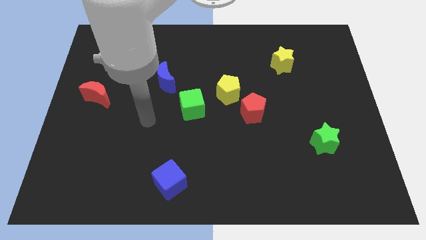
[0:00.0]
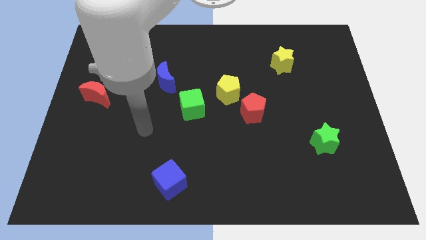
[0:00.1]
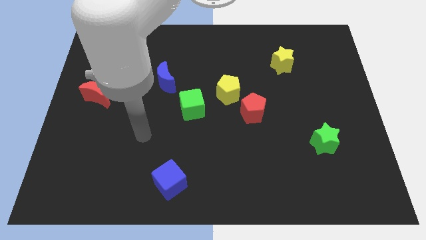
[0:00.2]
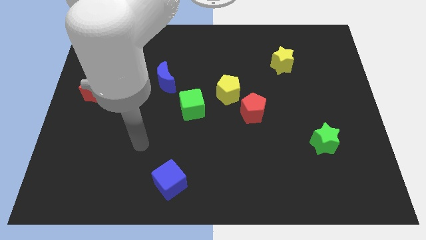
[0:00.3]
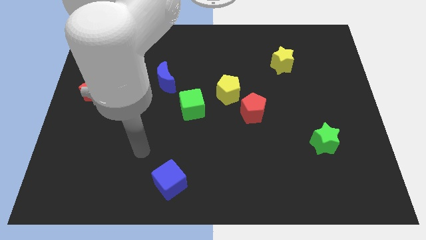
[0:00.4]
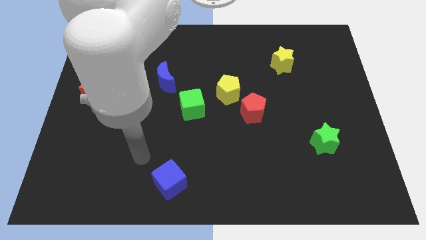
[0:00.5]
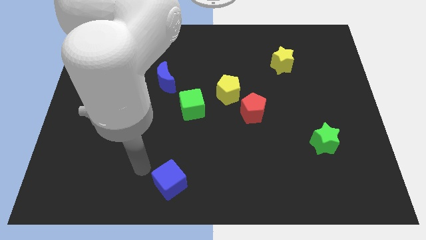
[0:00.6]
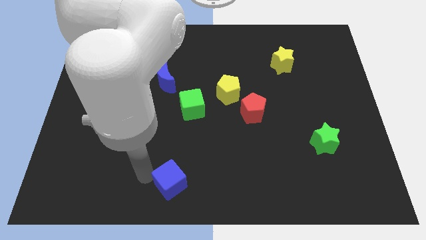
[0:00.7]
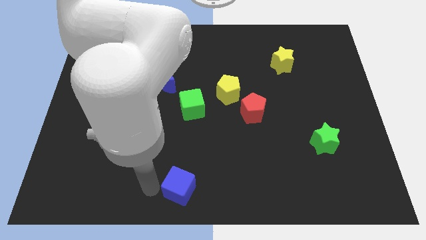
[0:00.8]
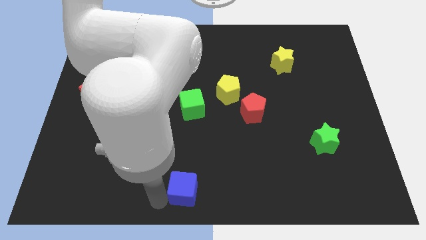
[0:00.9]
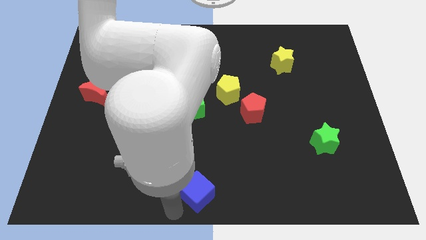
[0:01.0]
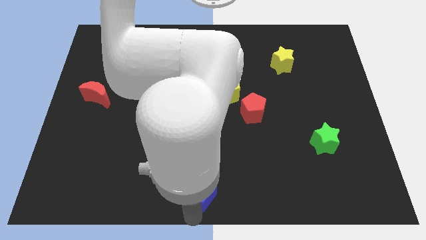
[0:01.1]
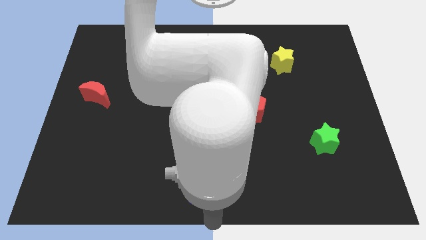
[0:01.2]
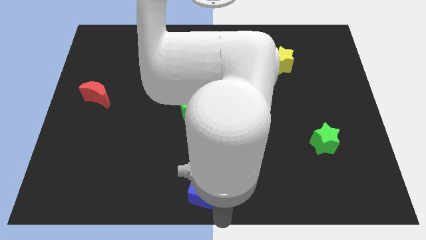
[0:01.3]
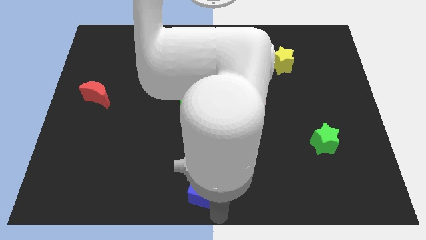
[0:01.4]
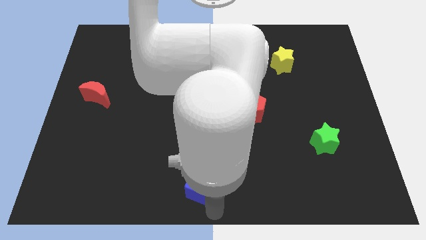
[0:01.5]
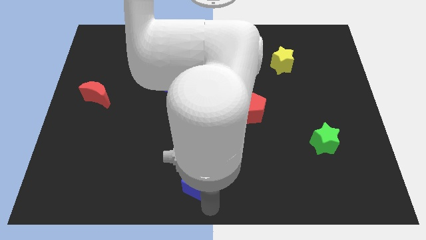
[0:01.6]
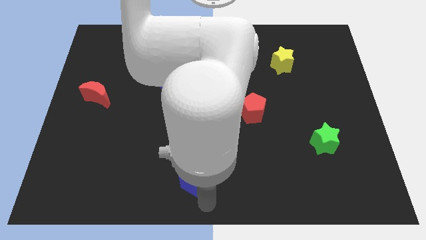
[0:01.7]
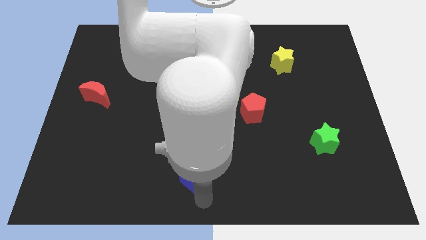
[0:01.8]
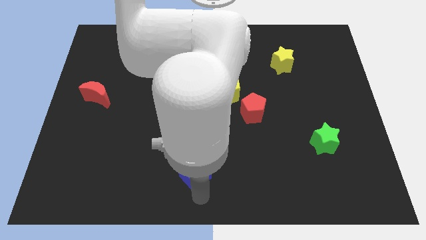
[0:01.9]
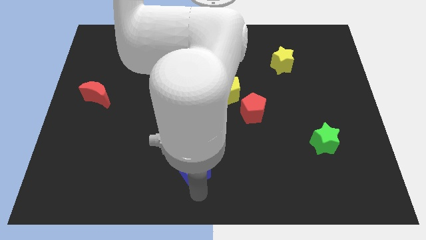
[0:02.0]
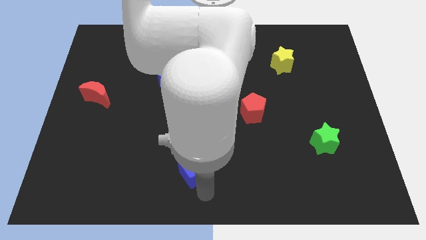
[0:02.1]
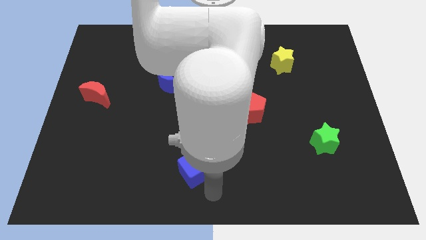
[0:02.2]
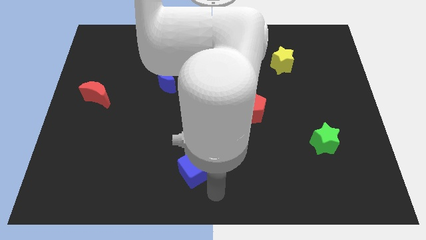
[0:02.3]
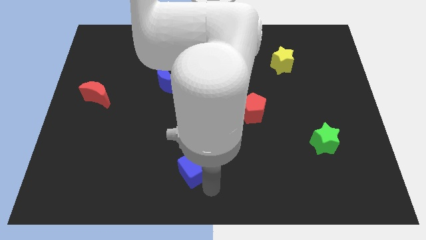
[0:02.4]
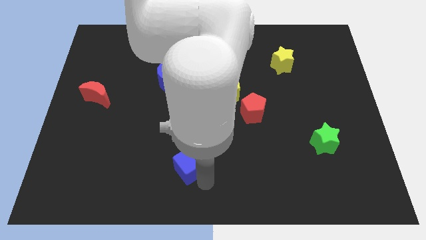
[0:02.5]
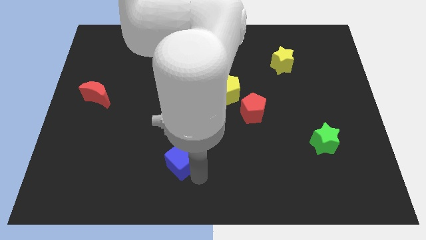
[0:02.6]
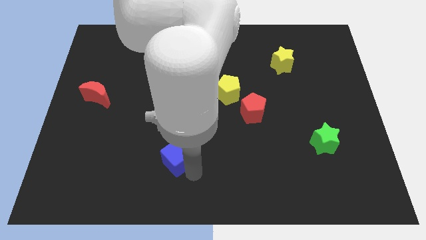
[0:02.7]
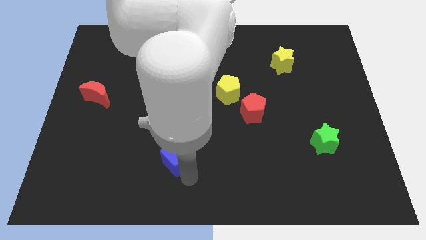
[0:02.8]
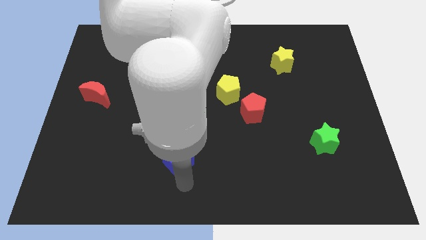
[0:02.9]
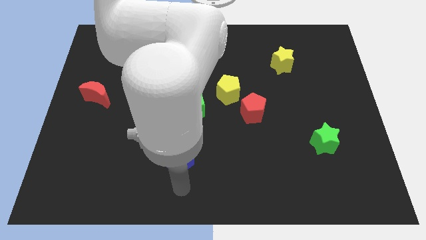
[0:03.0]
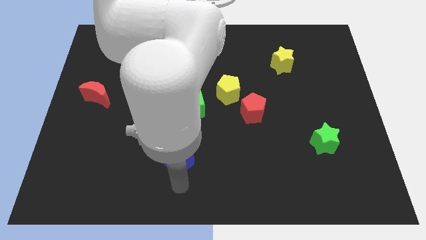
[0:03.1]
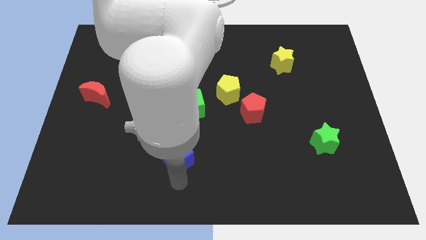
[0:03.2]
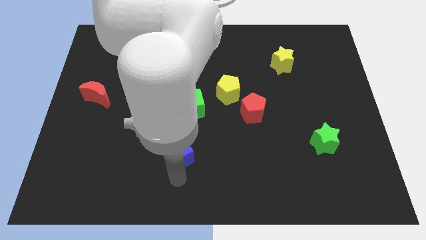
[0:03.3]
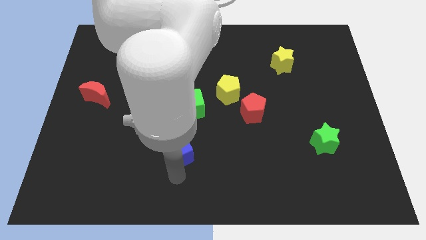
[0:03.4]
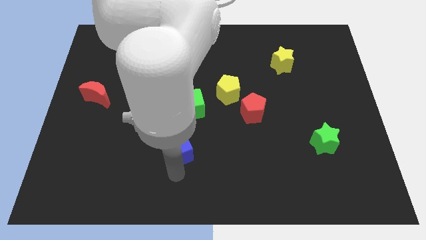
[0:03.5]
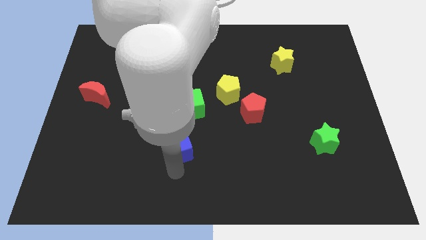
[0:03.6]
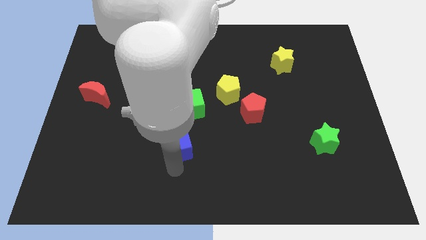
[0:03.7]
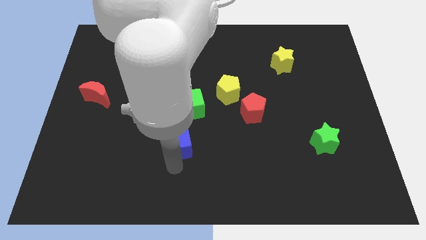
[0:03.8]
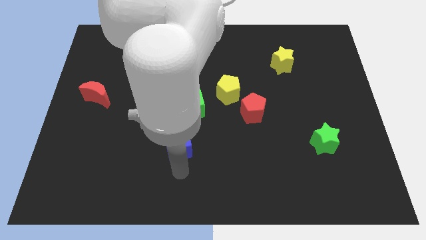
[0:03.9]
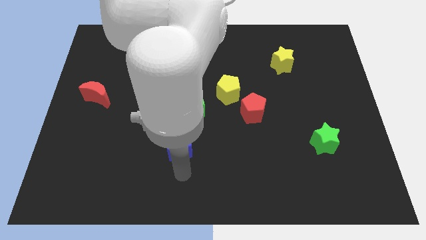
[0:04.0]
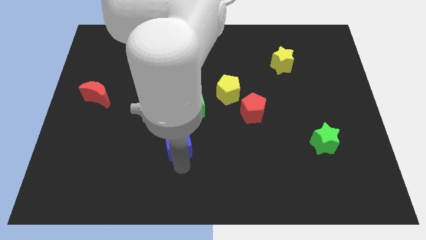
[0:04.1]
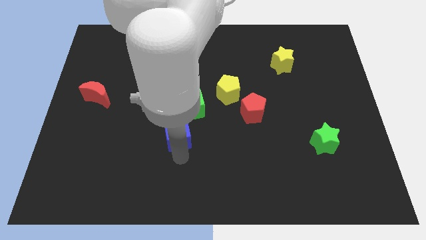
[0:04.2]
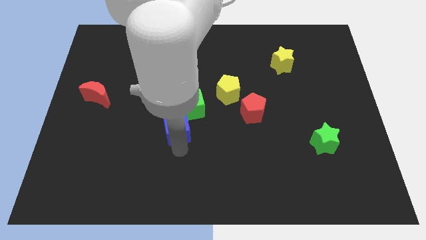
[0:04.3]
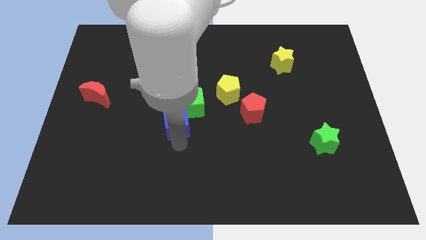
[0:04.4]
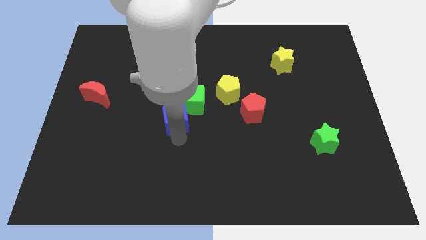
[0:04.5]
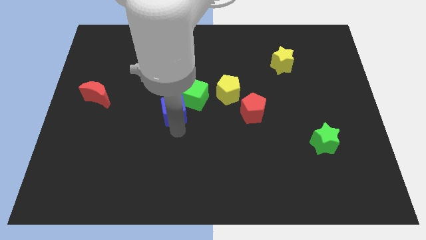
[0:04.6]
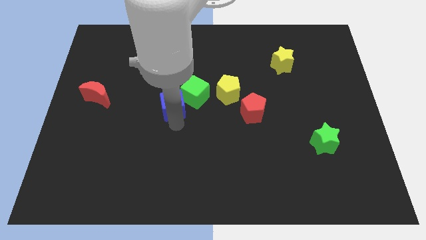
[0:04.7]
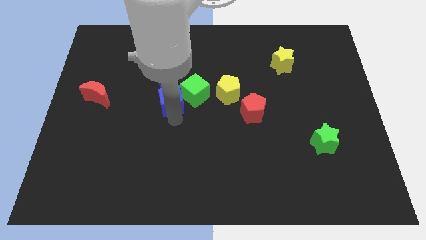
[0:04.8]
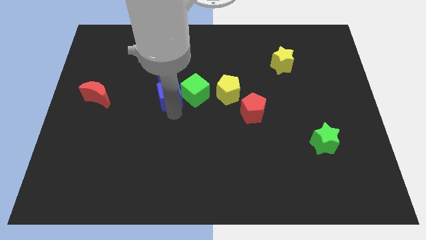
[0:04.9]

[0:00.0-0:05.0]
slide the blue cube next to the blue moon

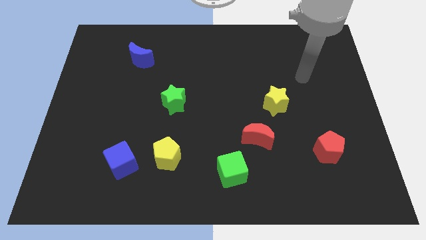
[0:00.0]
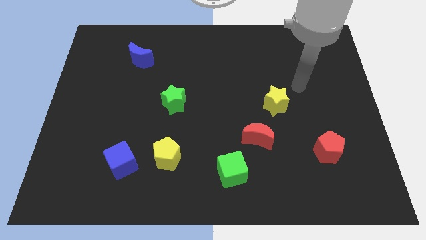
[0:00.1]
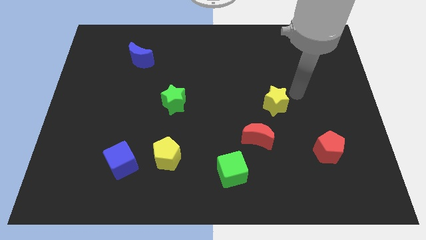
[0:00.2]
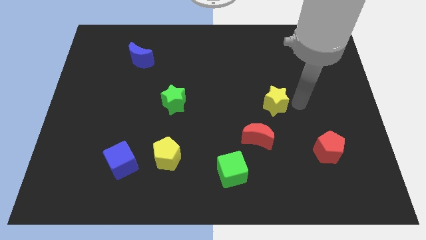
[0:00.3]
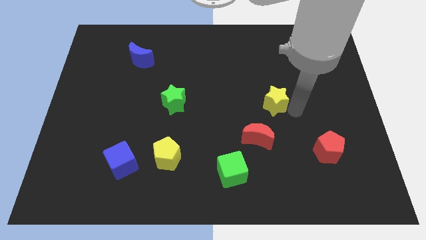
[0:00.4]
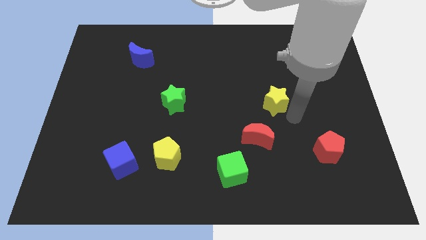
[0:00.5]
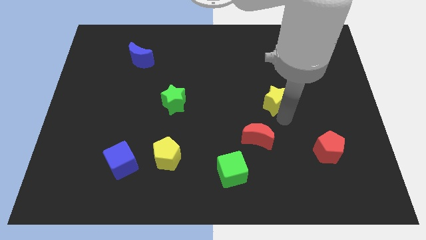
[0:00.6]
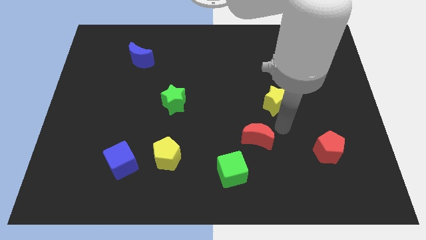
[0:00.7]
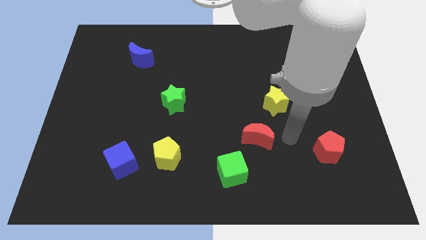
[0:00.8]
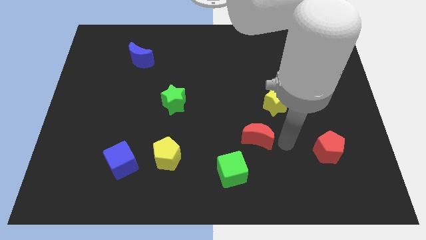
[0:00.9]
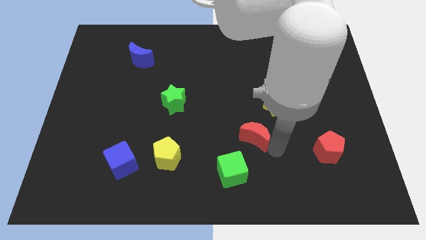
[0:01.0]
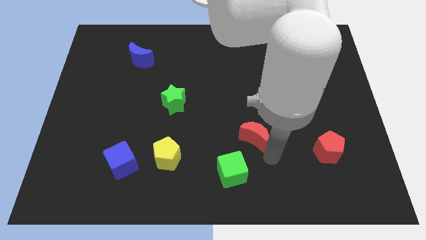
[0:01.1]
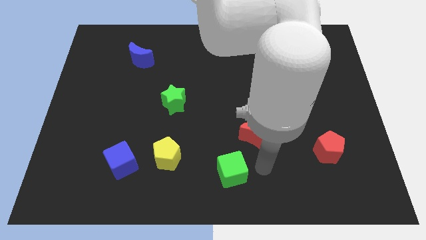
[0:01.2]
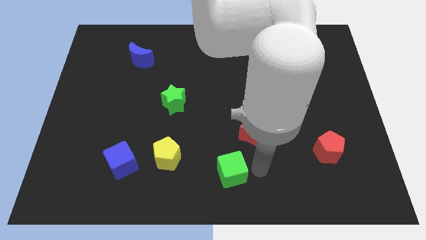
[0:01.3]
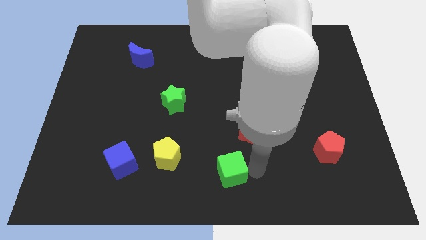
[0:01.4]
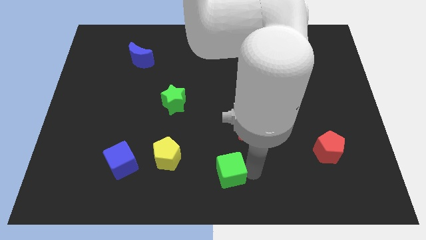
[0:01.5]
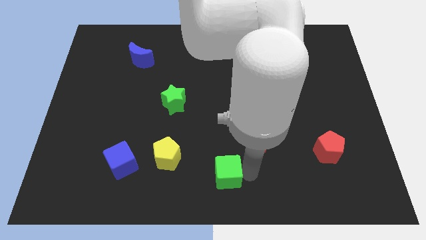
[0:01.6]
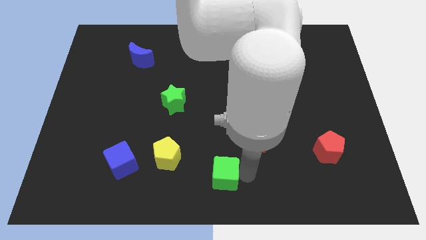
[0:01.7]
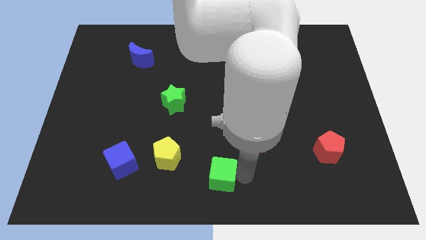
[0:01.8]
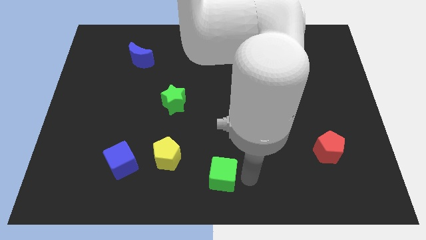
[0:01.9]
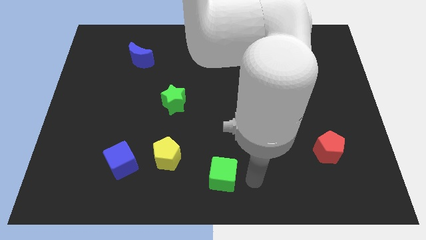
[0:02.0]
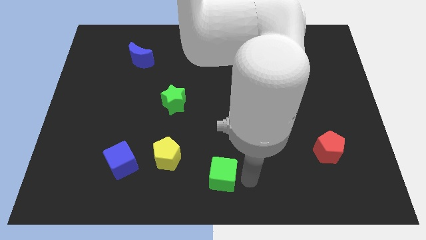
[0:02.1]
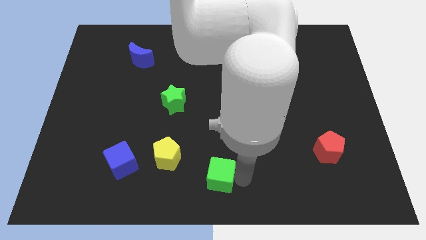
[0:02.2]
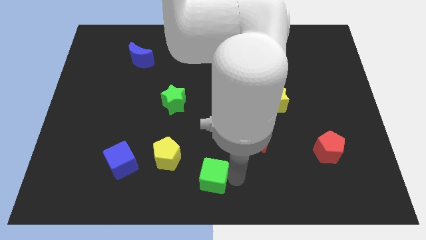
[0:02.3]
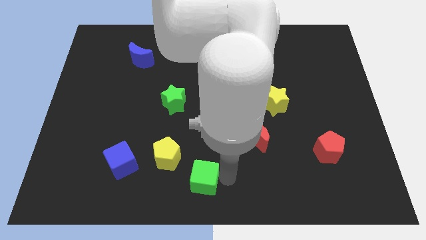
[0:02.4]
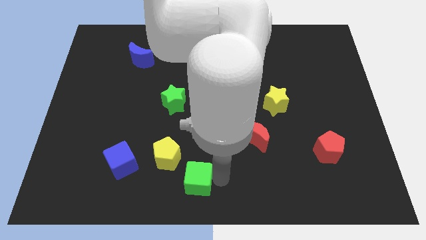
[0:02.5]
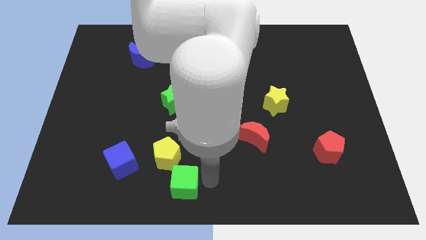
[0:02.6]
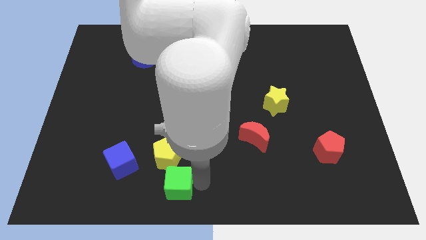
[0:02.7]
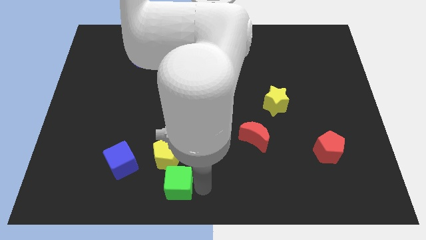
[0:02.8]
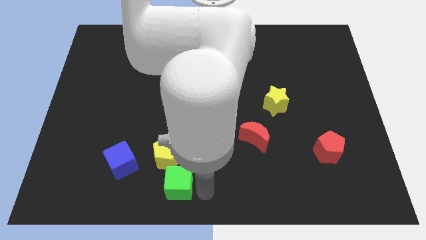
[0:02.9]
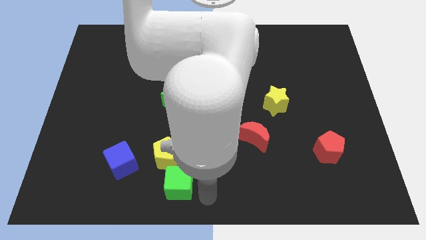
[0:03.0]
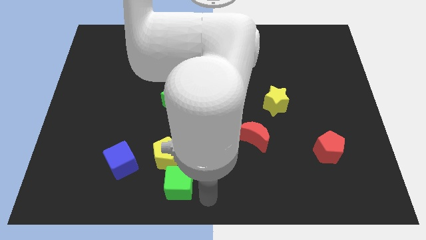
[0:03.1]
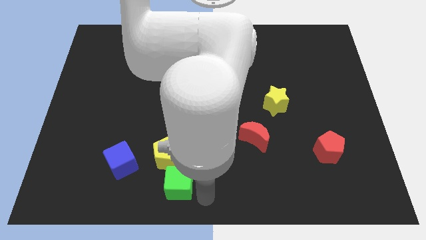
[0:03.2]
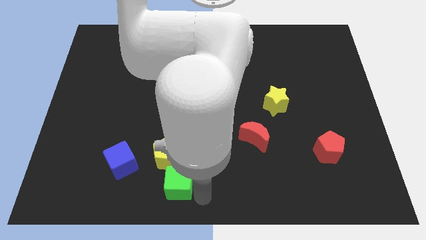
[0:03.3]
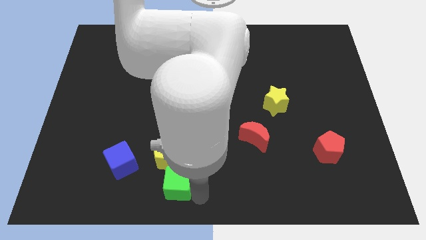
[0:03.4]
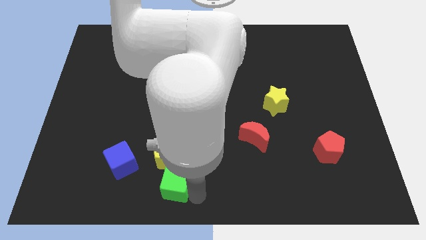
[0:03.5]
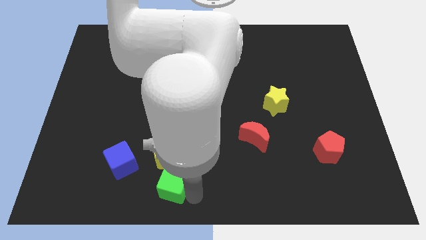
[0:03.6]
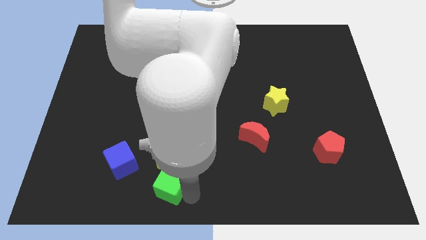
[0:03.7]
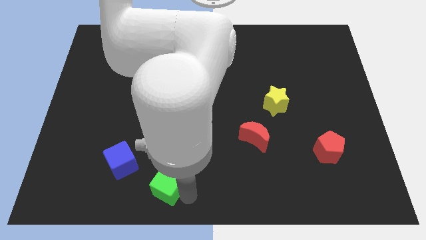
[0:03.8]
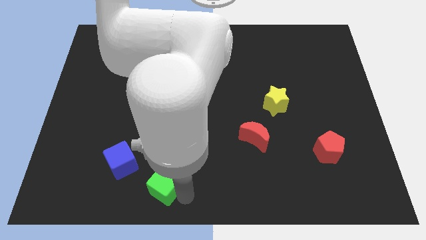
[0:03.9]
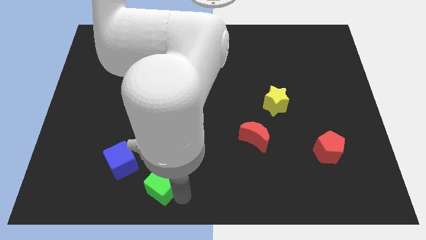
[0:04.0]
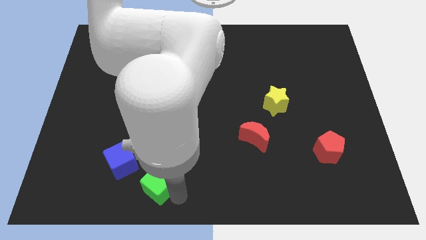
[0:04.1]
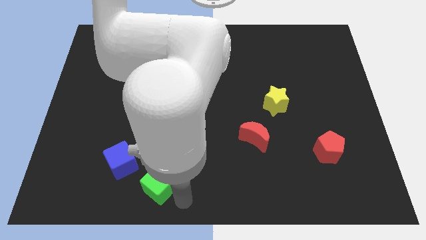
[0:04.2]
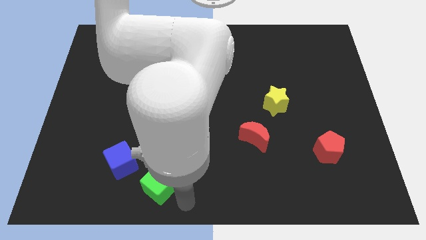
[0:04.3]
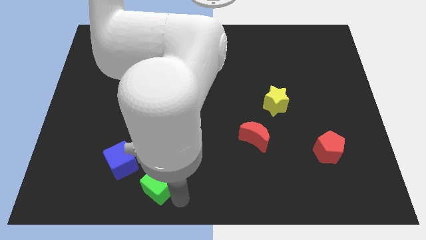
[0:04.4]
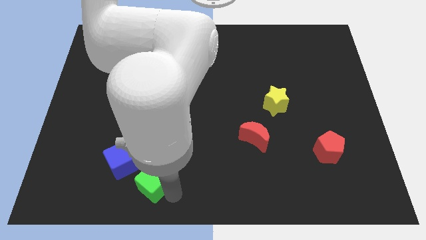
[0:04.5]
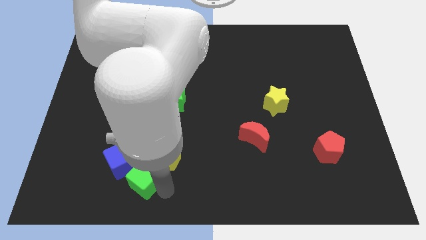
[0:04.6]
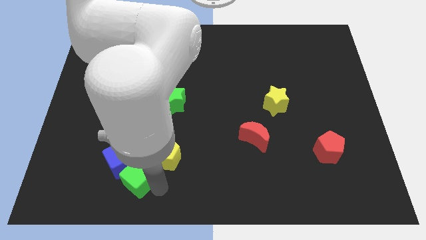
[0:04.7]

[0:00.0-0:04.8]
push the green cube next to the blue cube
